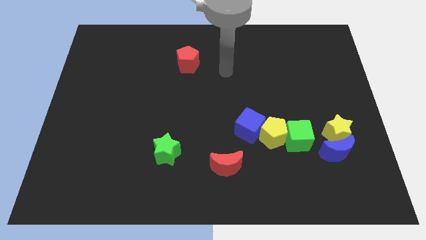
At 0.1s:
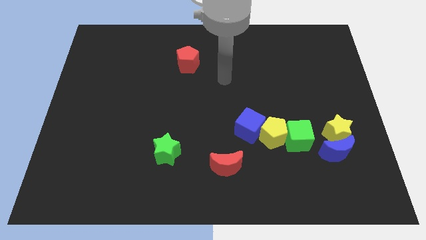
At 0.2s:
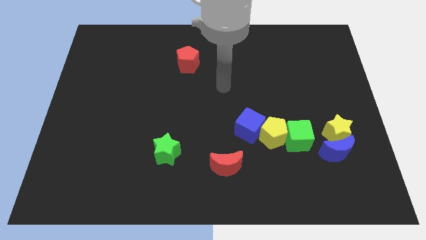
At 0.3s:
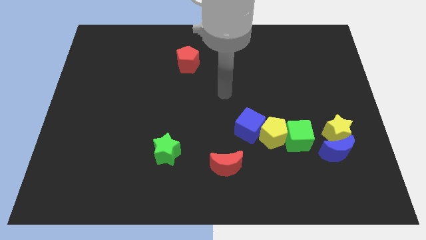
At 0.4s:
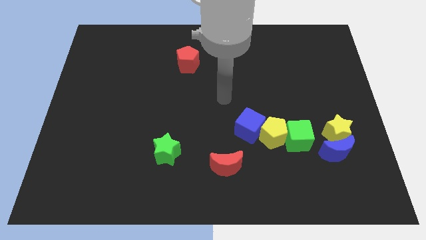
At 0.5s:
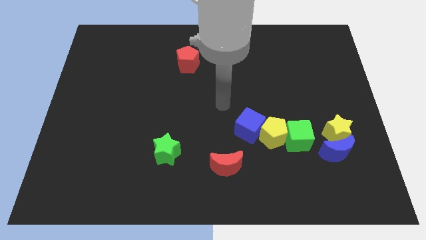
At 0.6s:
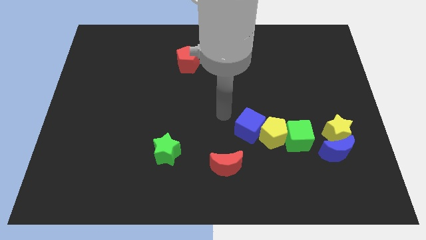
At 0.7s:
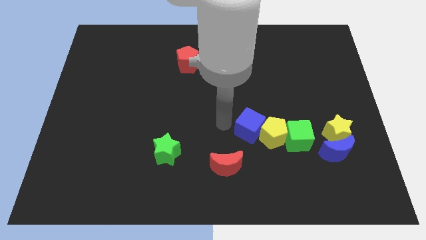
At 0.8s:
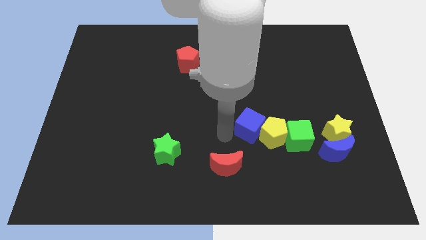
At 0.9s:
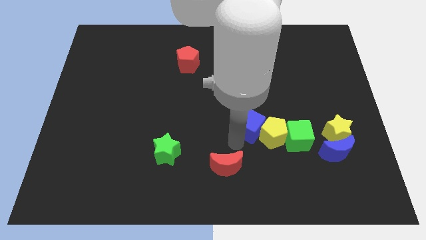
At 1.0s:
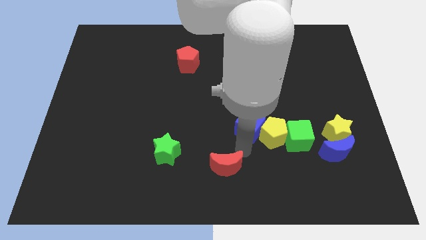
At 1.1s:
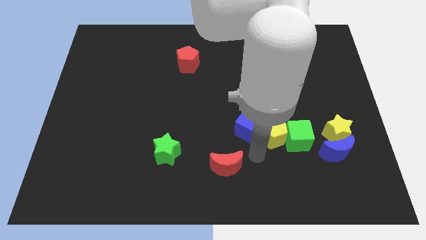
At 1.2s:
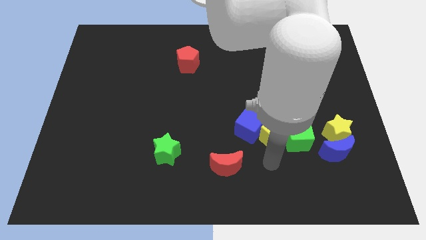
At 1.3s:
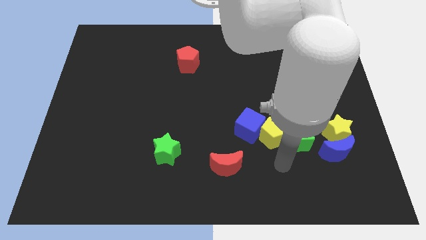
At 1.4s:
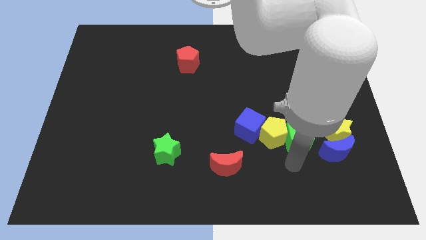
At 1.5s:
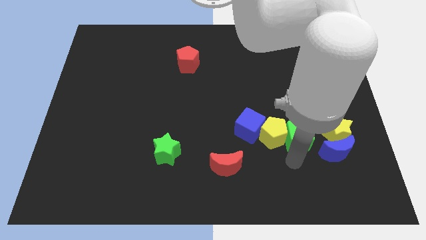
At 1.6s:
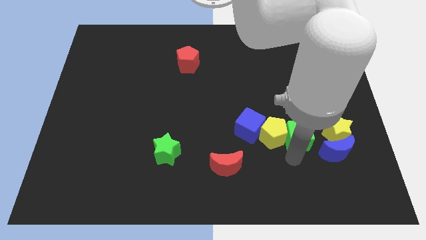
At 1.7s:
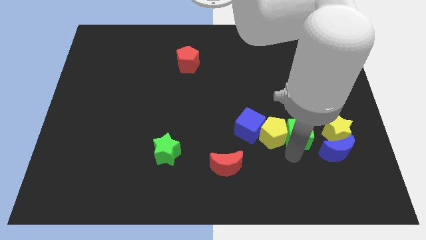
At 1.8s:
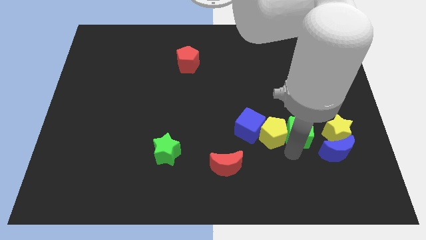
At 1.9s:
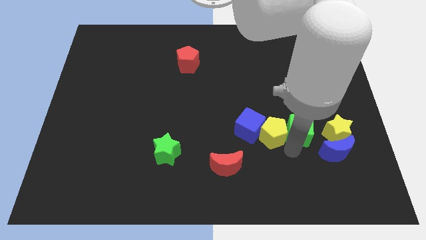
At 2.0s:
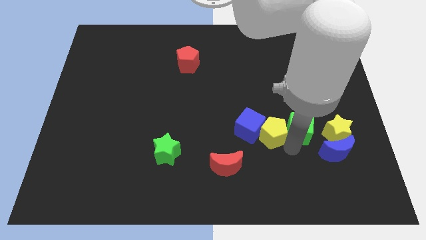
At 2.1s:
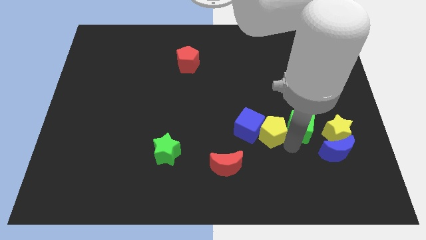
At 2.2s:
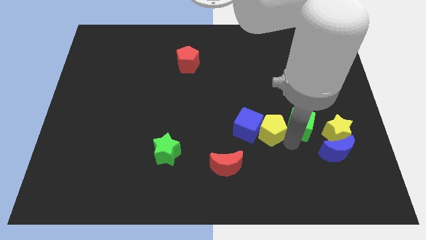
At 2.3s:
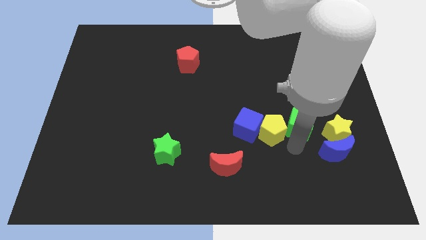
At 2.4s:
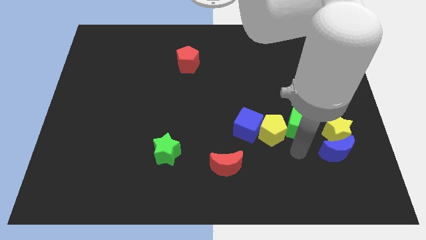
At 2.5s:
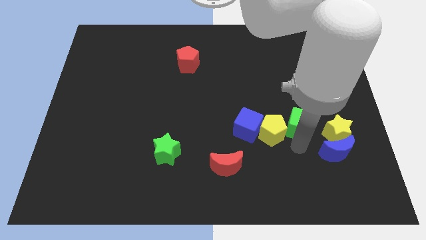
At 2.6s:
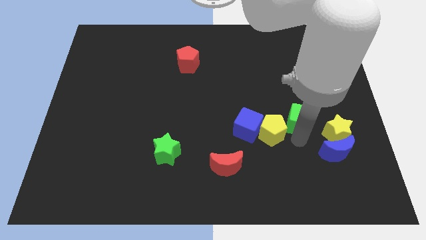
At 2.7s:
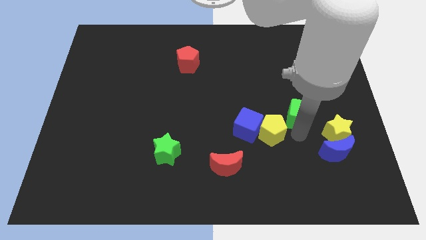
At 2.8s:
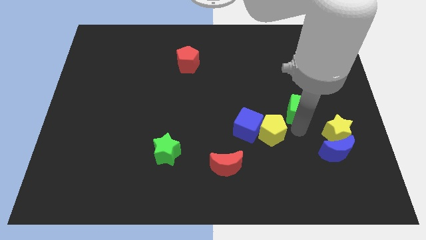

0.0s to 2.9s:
slightly push the green cube up

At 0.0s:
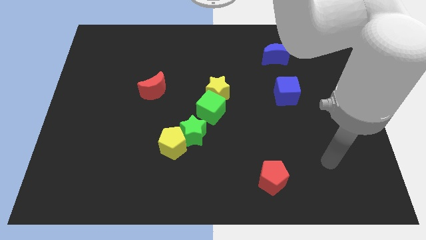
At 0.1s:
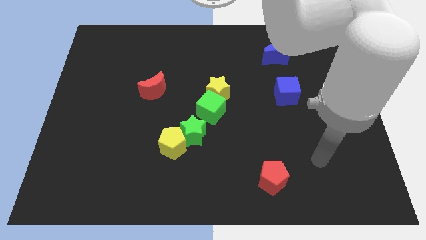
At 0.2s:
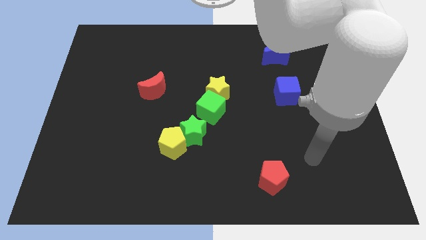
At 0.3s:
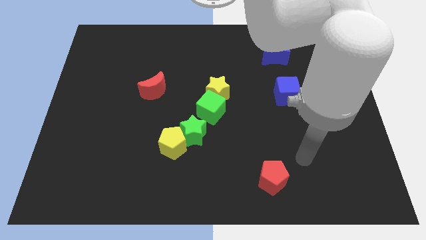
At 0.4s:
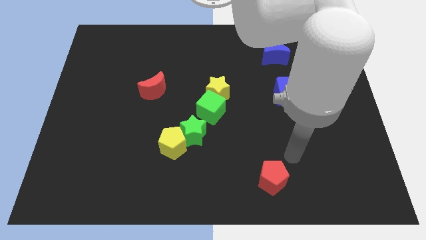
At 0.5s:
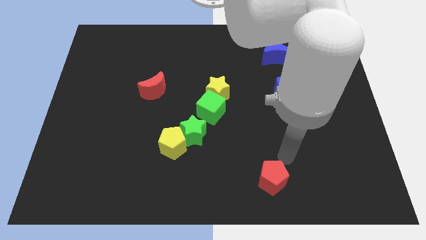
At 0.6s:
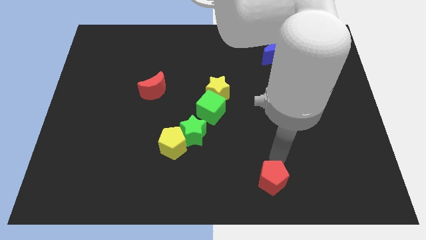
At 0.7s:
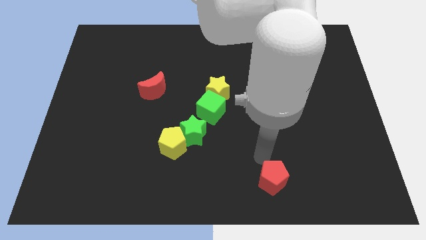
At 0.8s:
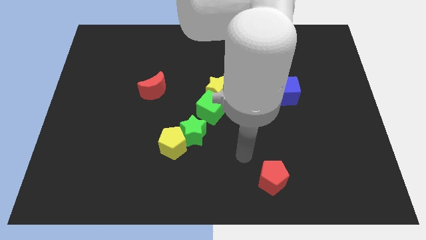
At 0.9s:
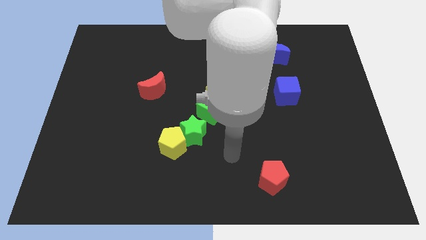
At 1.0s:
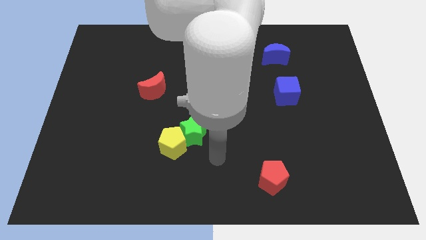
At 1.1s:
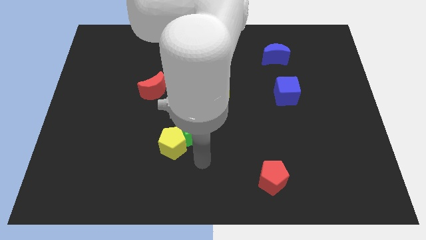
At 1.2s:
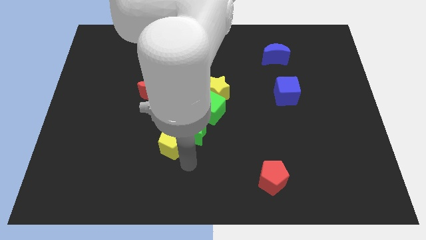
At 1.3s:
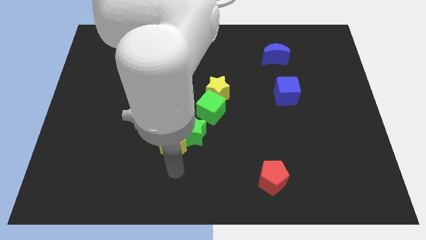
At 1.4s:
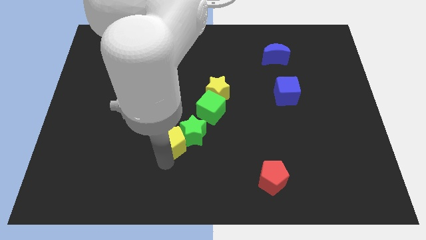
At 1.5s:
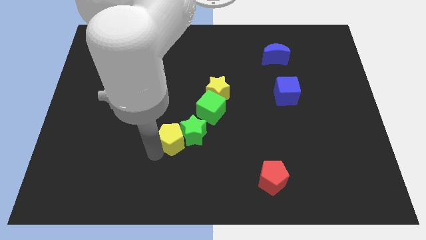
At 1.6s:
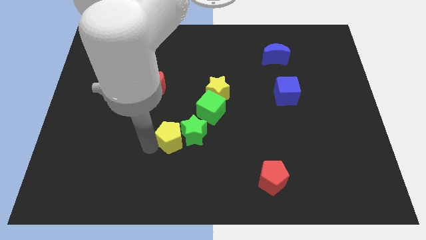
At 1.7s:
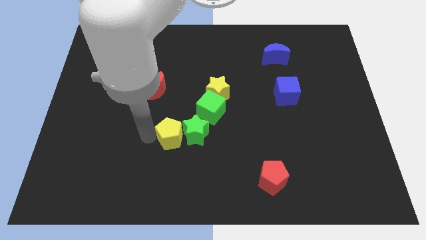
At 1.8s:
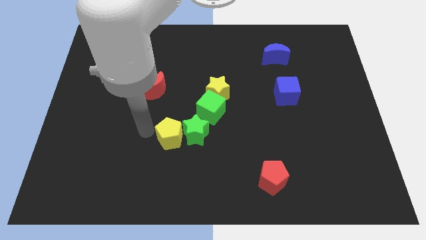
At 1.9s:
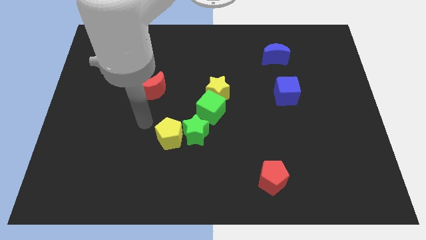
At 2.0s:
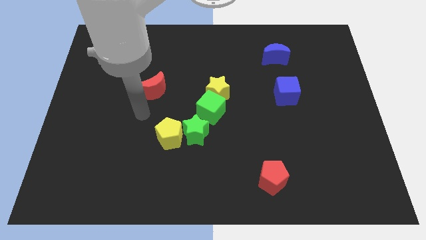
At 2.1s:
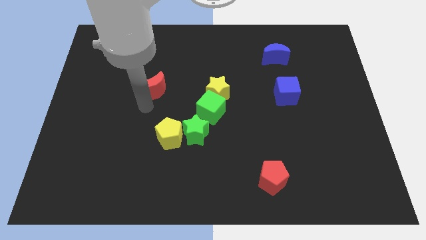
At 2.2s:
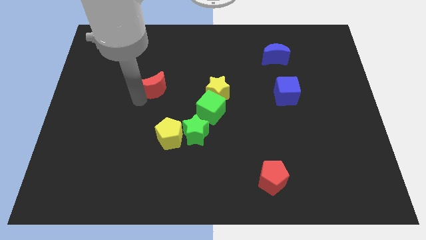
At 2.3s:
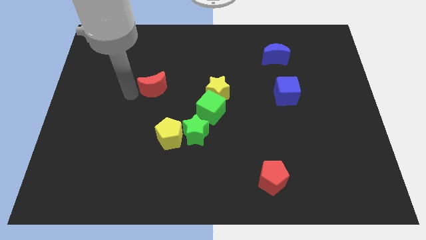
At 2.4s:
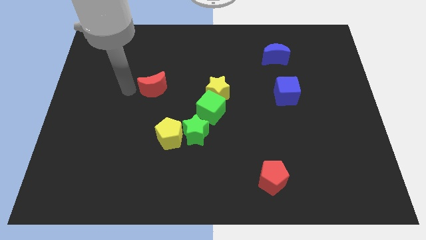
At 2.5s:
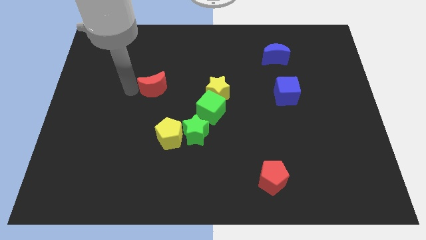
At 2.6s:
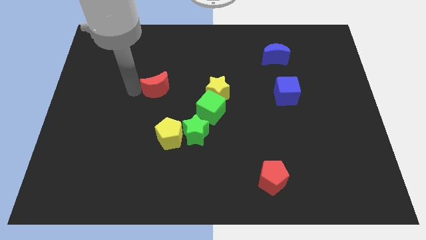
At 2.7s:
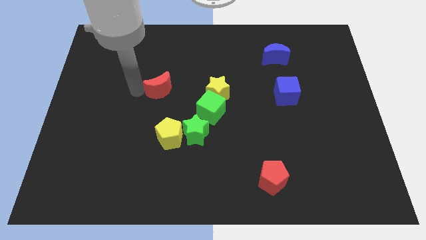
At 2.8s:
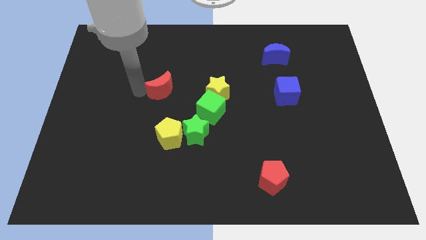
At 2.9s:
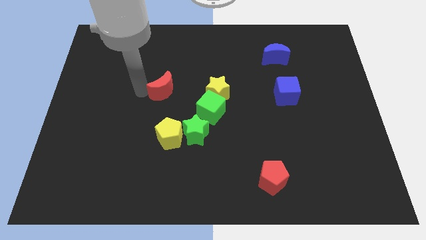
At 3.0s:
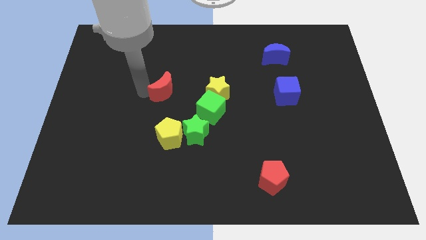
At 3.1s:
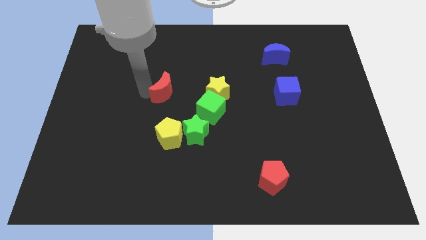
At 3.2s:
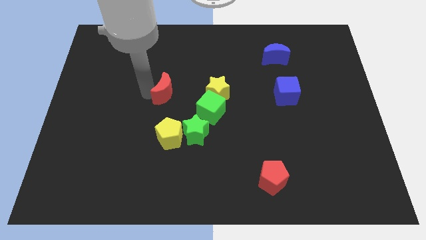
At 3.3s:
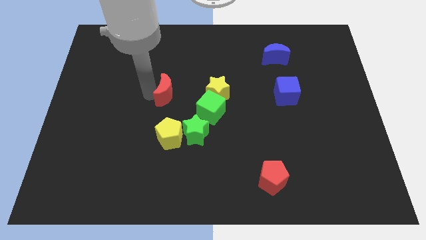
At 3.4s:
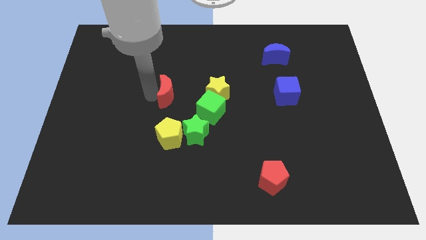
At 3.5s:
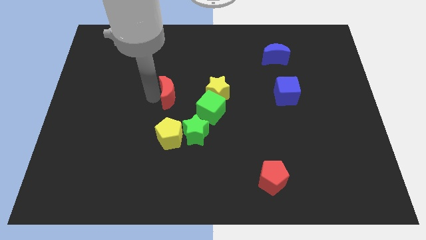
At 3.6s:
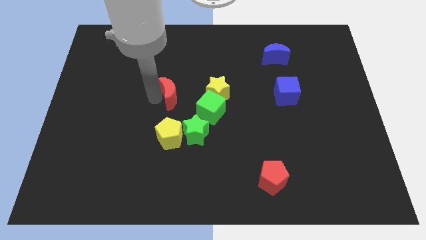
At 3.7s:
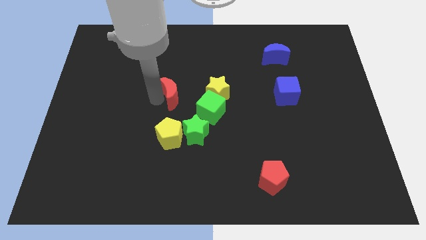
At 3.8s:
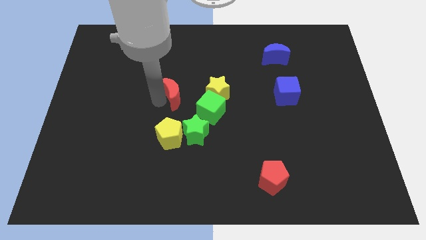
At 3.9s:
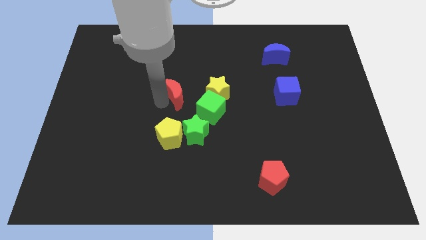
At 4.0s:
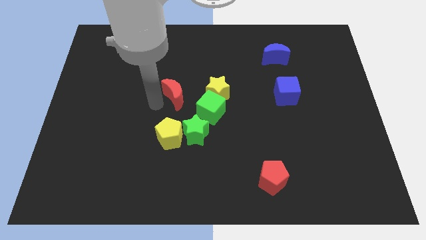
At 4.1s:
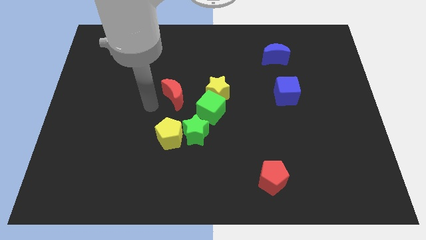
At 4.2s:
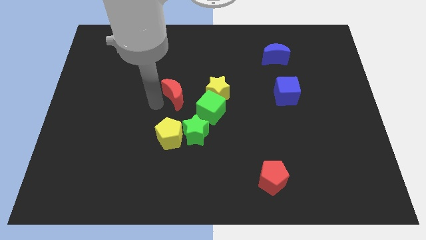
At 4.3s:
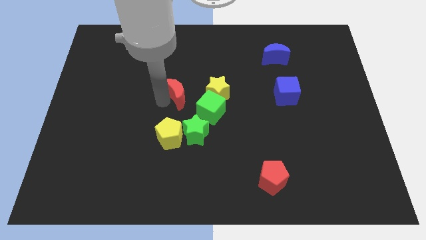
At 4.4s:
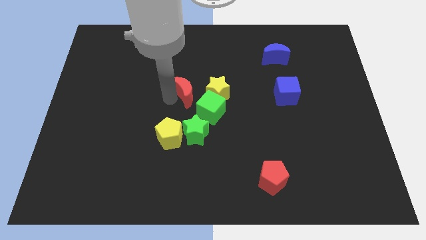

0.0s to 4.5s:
slightly slide the red moon to the right

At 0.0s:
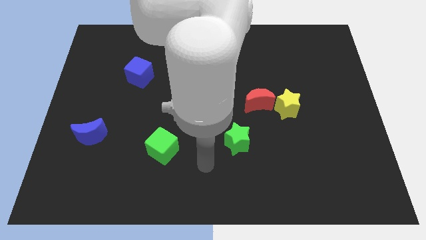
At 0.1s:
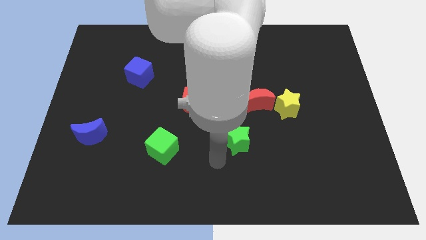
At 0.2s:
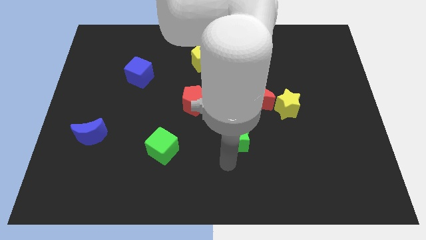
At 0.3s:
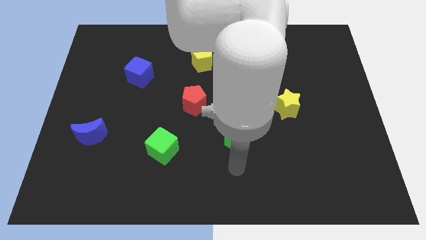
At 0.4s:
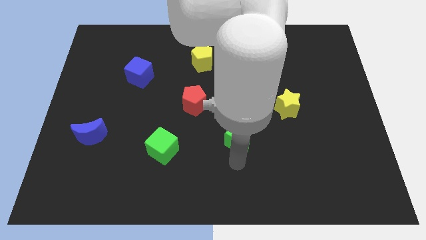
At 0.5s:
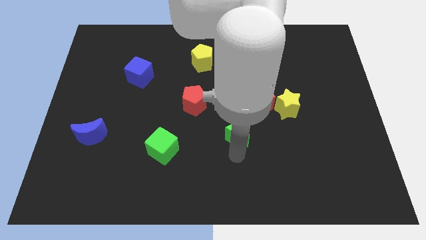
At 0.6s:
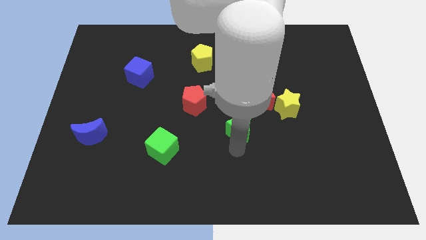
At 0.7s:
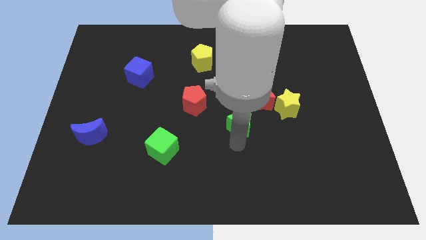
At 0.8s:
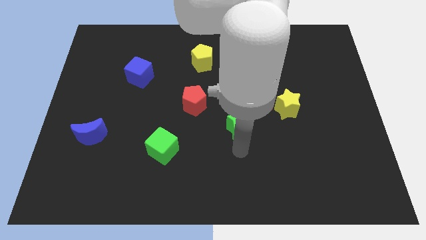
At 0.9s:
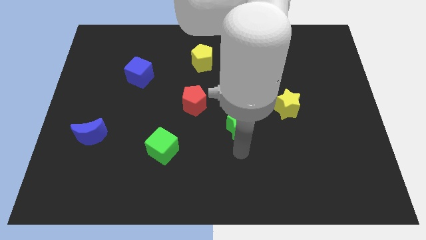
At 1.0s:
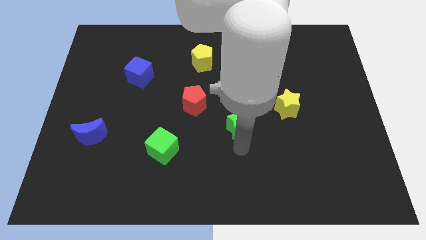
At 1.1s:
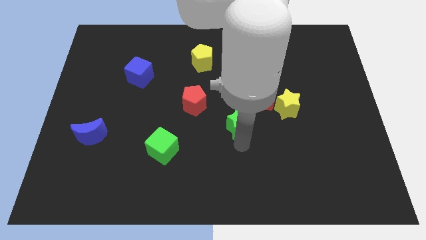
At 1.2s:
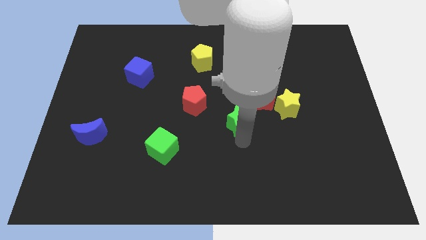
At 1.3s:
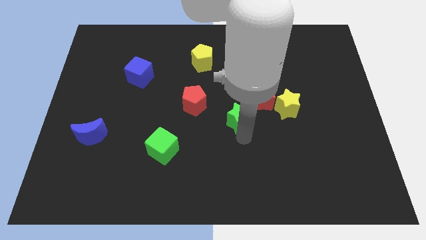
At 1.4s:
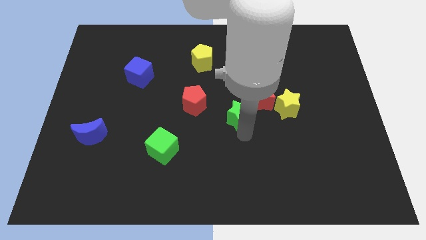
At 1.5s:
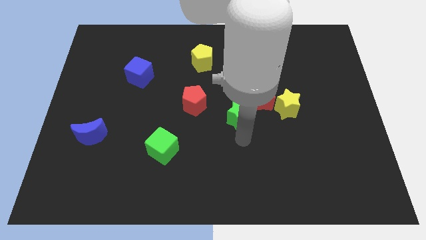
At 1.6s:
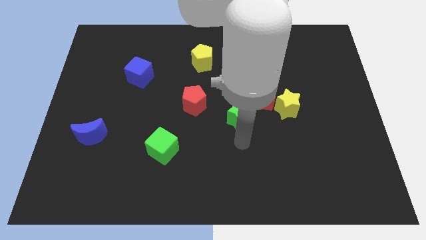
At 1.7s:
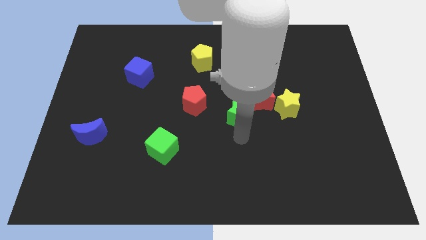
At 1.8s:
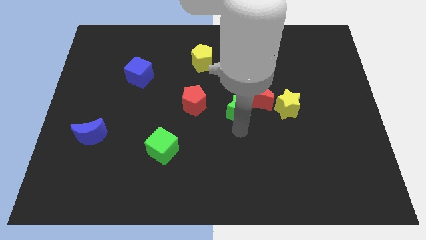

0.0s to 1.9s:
slightly move the green star upwards
